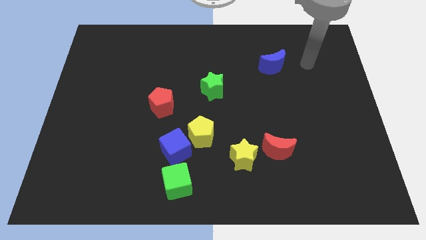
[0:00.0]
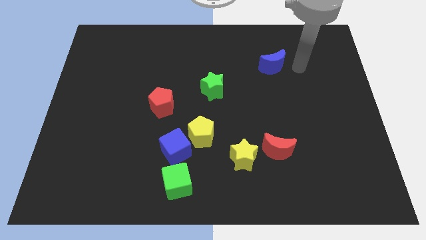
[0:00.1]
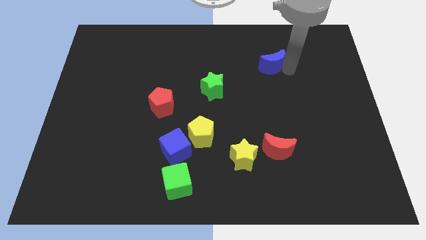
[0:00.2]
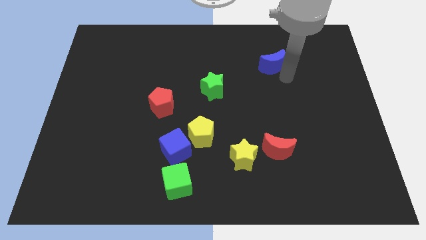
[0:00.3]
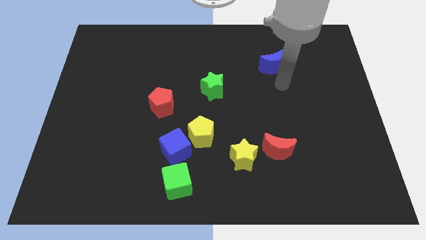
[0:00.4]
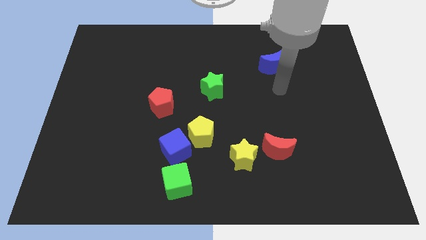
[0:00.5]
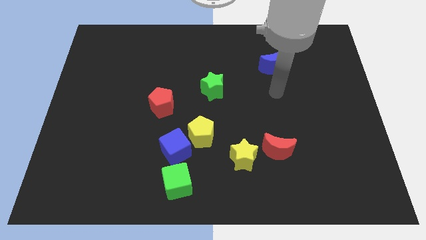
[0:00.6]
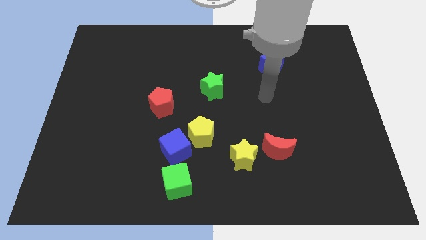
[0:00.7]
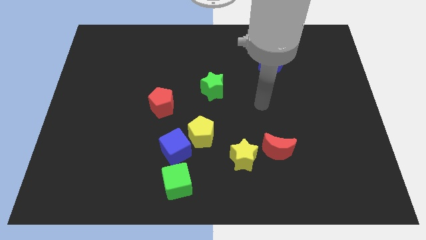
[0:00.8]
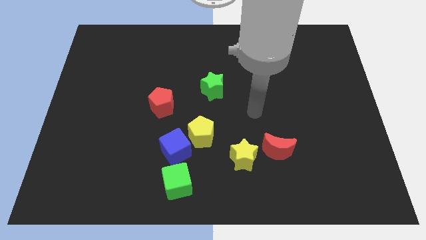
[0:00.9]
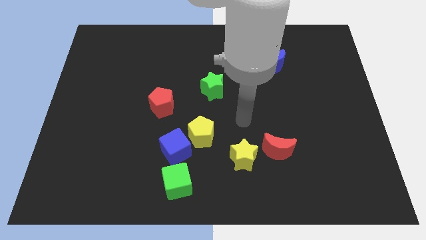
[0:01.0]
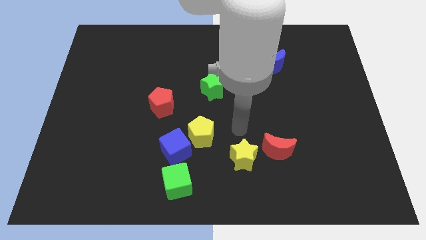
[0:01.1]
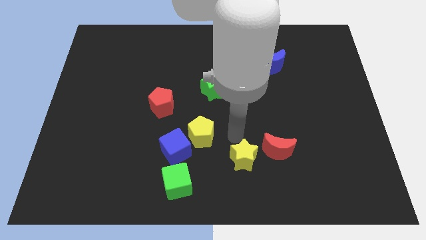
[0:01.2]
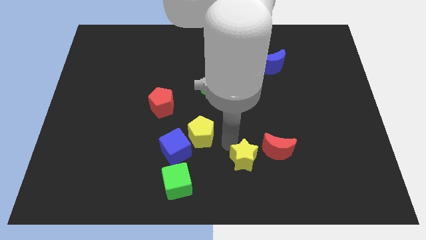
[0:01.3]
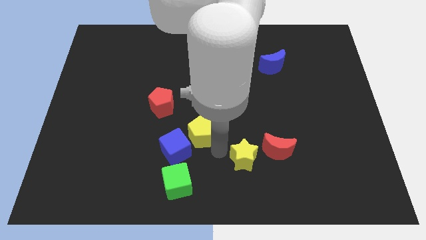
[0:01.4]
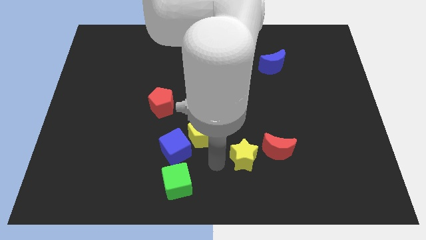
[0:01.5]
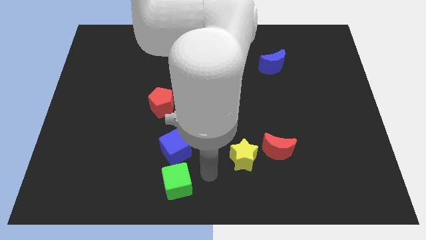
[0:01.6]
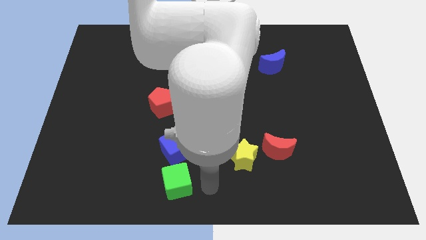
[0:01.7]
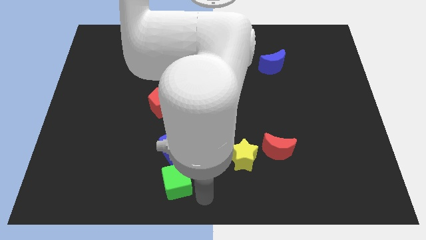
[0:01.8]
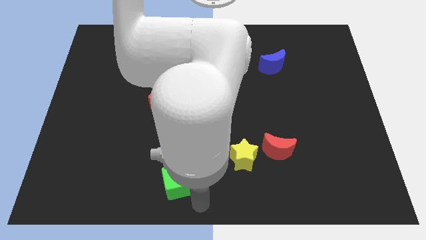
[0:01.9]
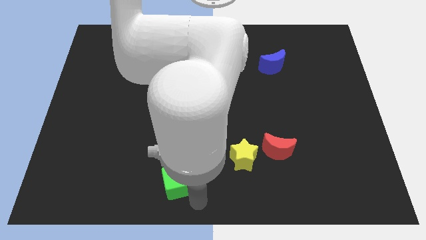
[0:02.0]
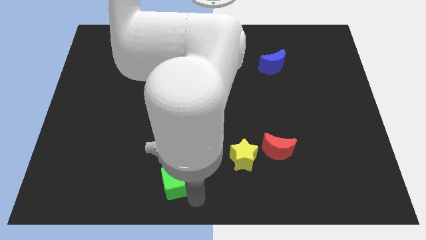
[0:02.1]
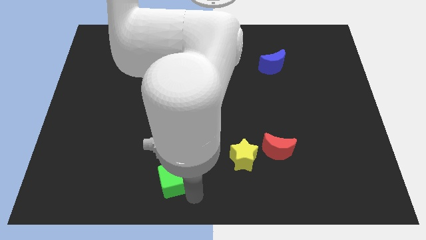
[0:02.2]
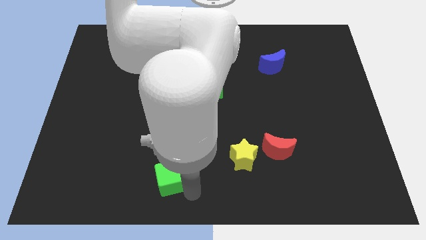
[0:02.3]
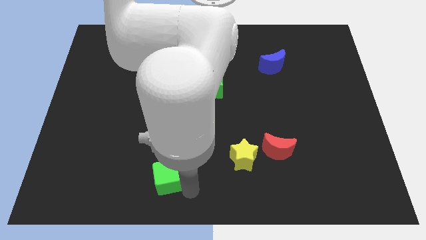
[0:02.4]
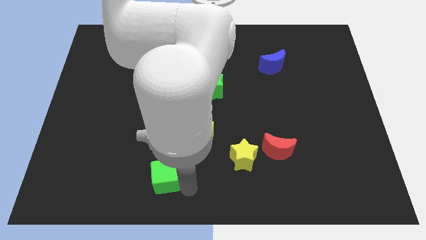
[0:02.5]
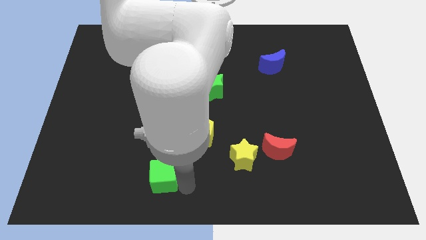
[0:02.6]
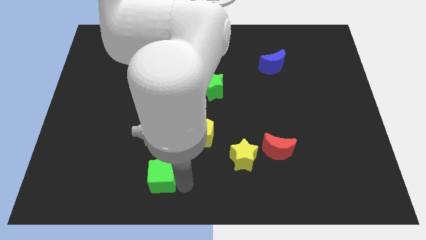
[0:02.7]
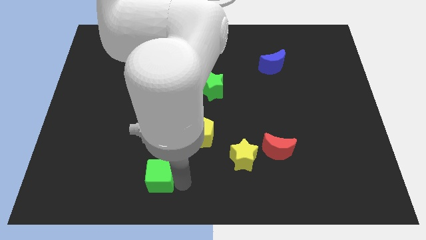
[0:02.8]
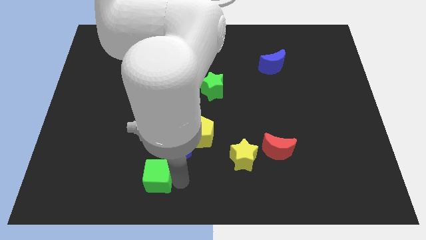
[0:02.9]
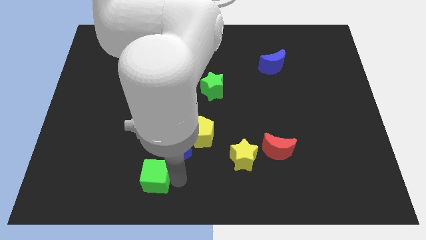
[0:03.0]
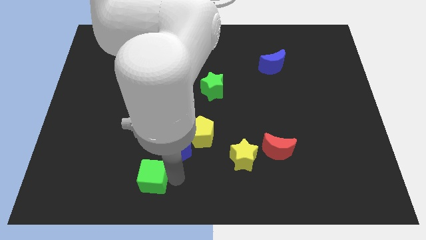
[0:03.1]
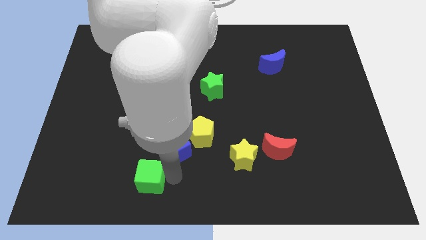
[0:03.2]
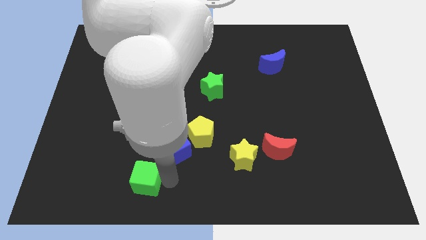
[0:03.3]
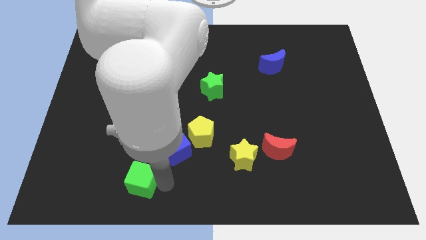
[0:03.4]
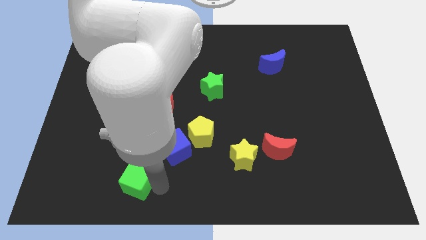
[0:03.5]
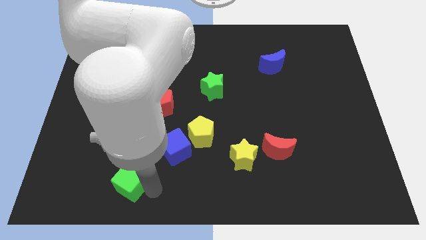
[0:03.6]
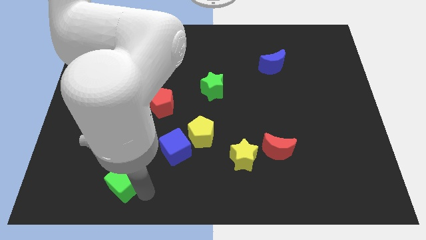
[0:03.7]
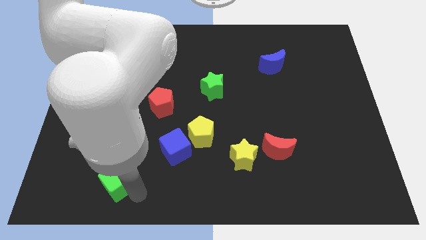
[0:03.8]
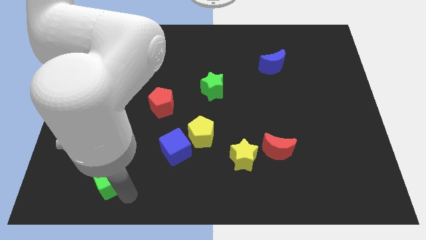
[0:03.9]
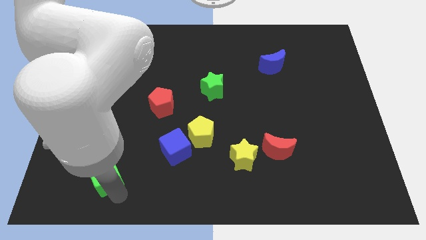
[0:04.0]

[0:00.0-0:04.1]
move the green cube upwards and then to the left a little

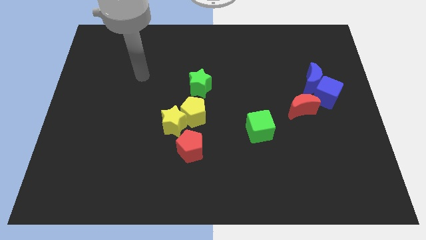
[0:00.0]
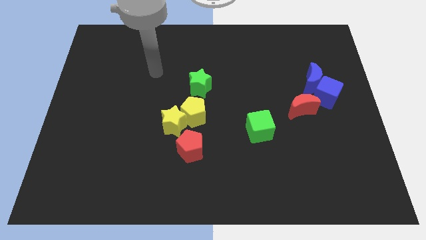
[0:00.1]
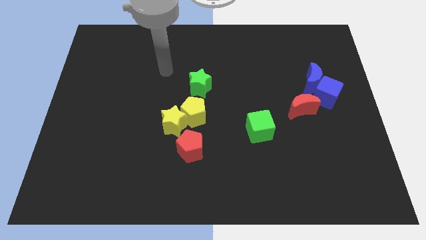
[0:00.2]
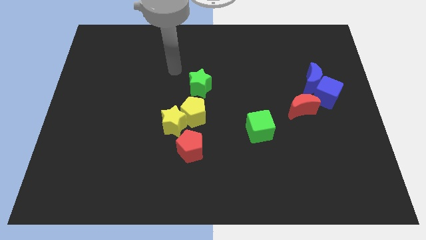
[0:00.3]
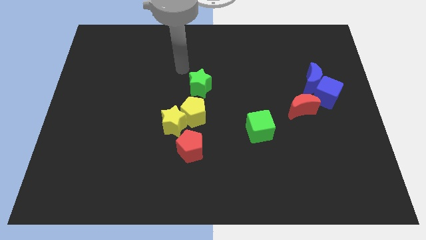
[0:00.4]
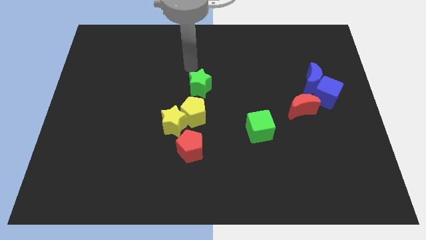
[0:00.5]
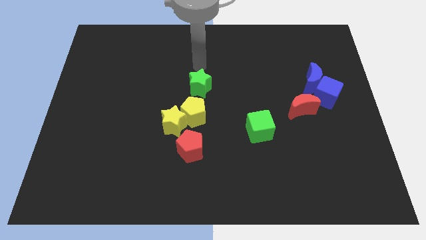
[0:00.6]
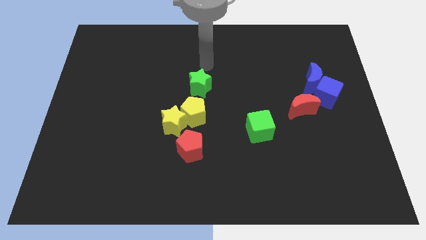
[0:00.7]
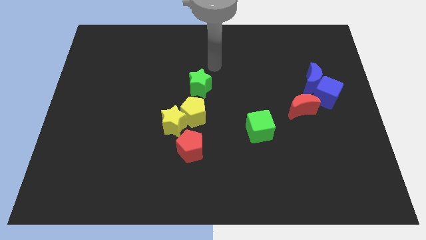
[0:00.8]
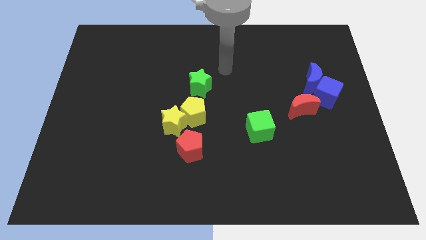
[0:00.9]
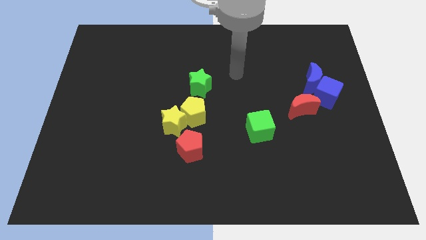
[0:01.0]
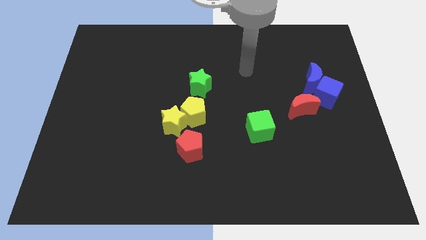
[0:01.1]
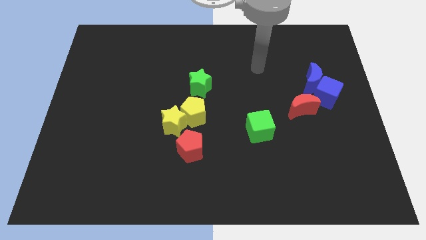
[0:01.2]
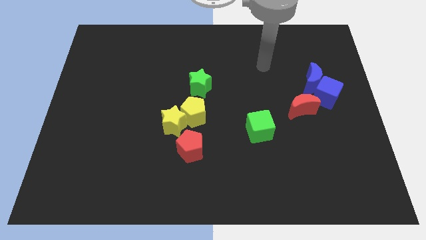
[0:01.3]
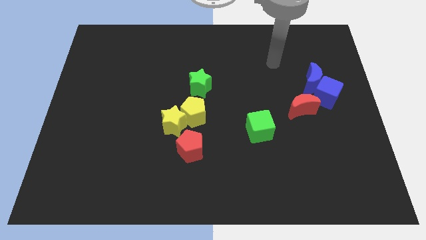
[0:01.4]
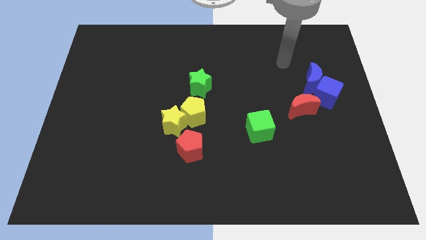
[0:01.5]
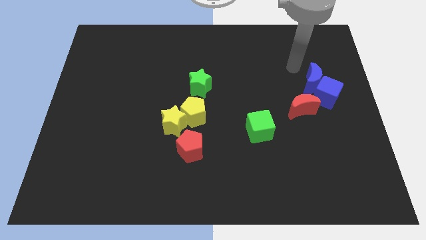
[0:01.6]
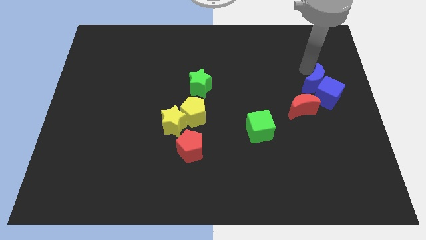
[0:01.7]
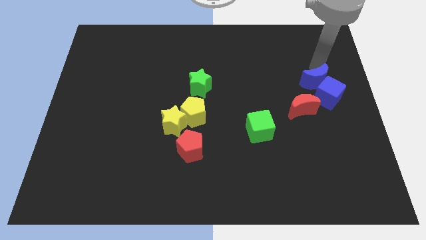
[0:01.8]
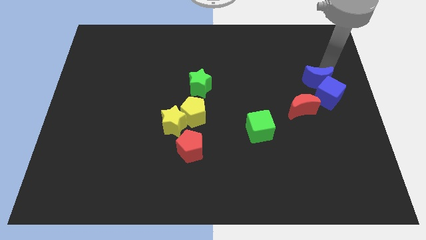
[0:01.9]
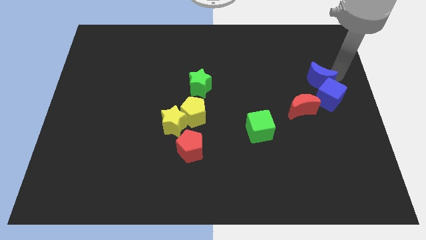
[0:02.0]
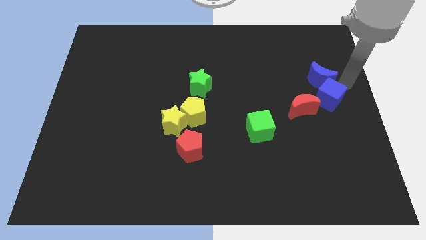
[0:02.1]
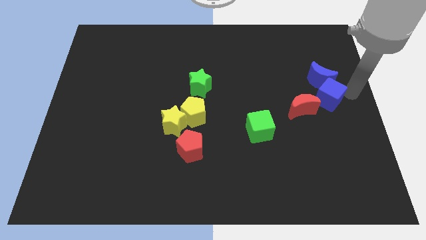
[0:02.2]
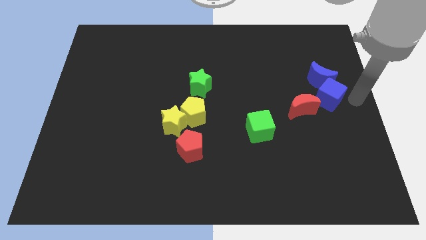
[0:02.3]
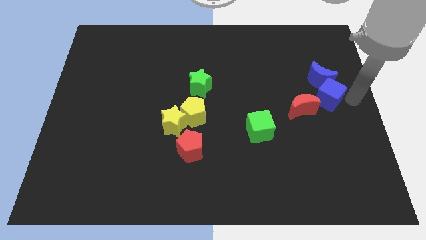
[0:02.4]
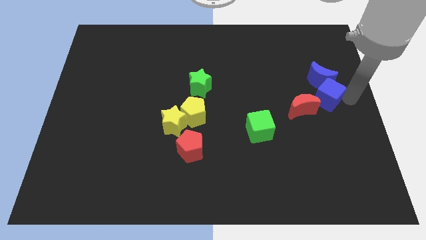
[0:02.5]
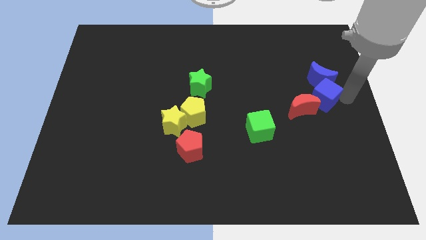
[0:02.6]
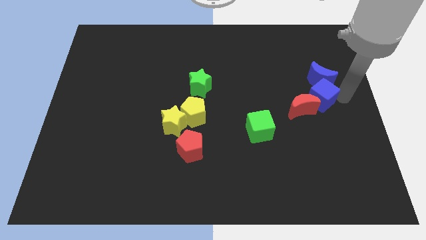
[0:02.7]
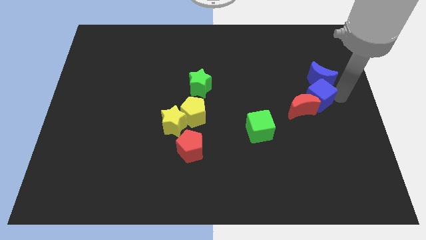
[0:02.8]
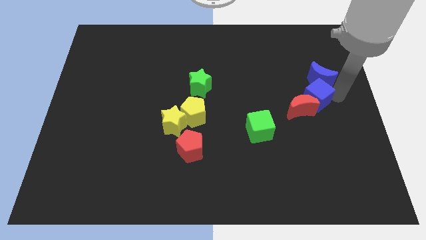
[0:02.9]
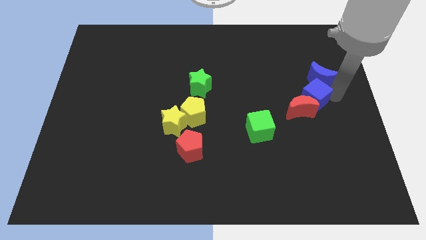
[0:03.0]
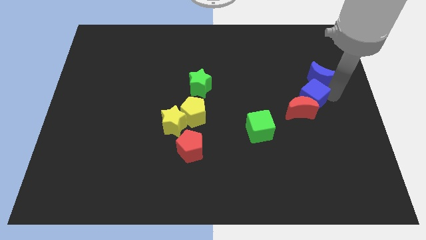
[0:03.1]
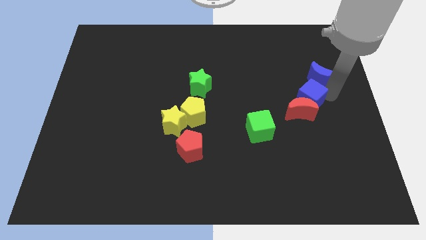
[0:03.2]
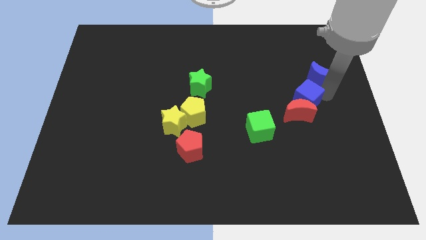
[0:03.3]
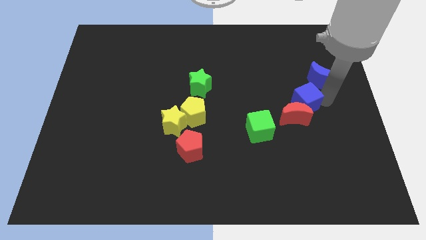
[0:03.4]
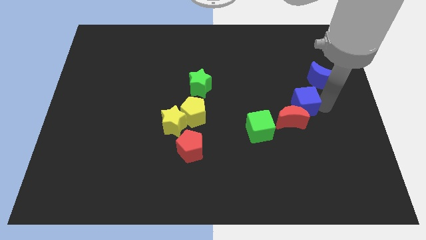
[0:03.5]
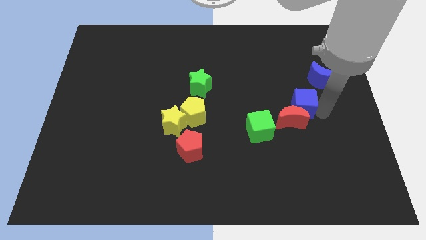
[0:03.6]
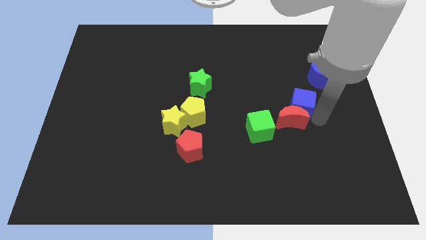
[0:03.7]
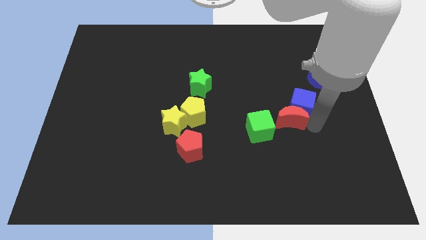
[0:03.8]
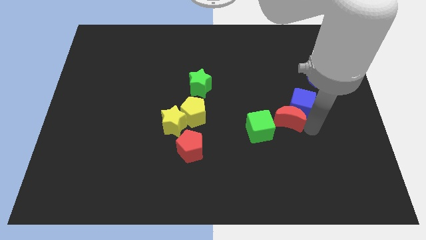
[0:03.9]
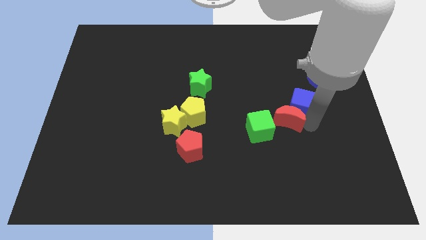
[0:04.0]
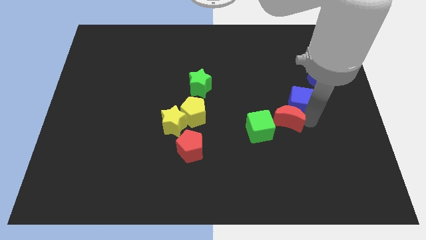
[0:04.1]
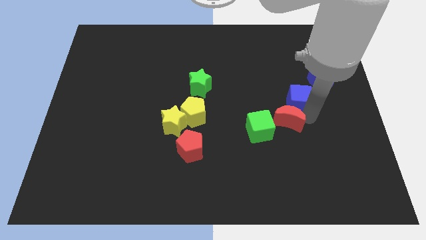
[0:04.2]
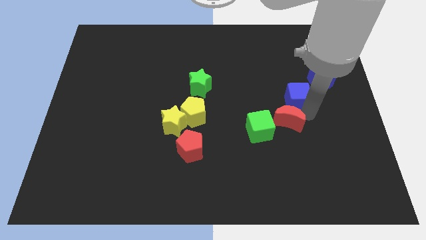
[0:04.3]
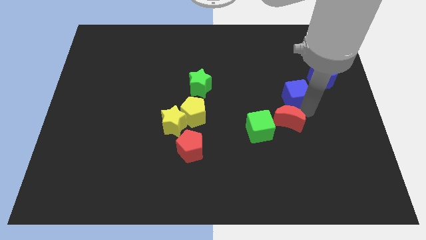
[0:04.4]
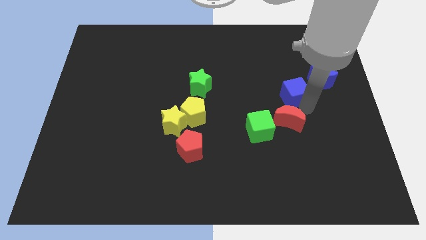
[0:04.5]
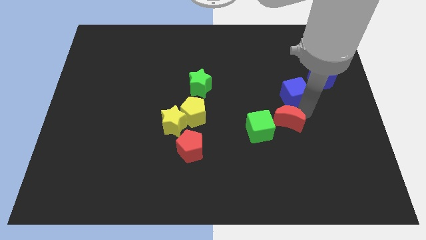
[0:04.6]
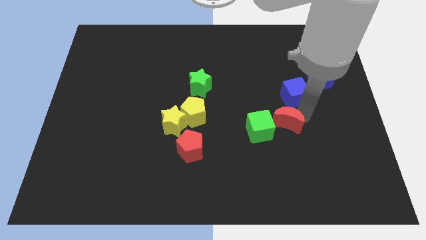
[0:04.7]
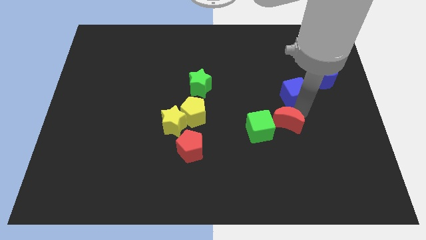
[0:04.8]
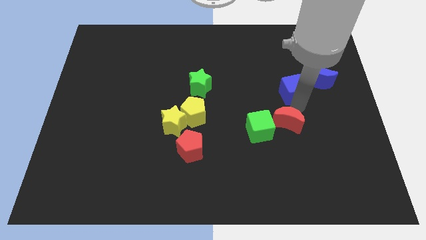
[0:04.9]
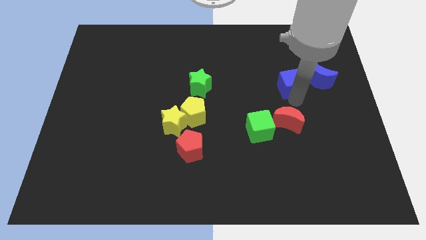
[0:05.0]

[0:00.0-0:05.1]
push the blue cube somewhat upwards and left diagonally
